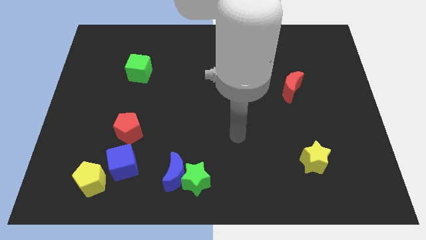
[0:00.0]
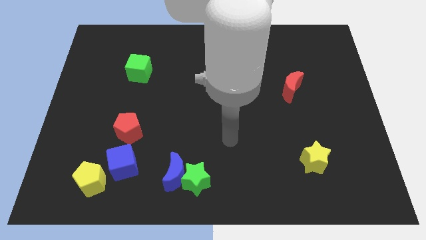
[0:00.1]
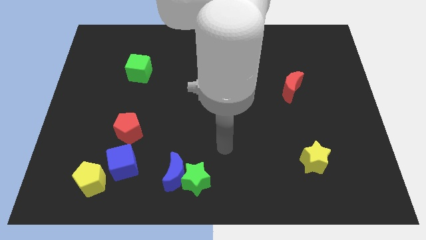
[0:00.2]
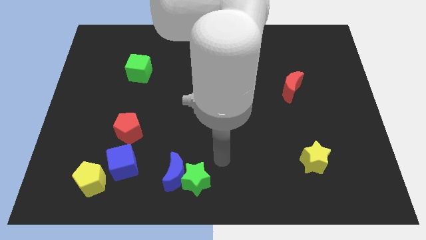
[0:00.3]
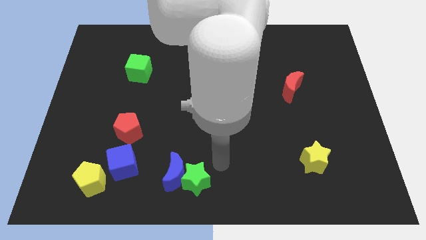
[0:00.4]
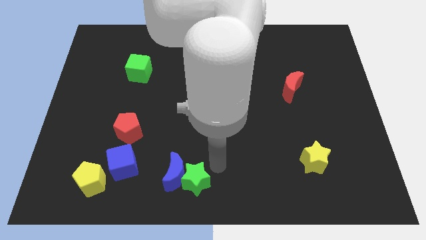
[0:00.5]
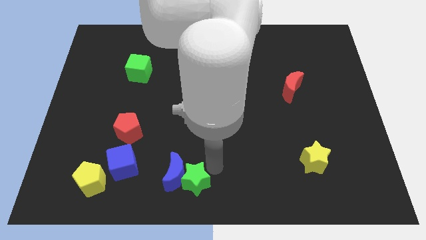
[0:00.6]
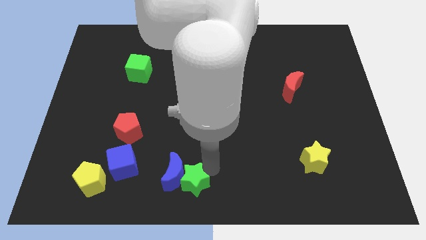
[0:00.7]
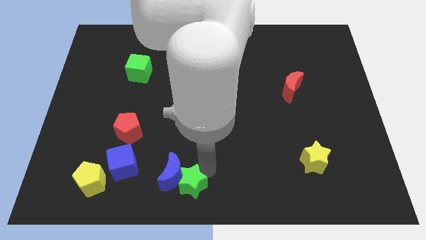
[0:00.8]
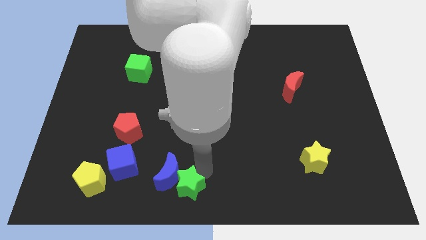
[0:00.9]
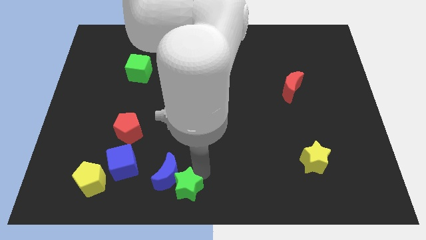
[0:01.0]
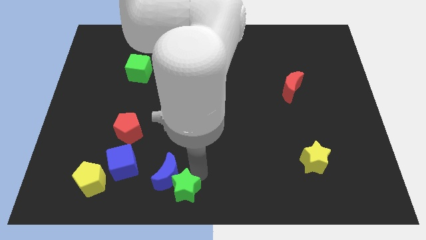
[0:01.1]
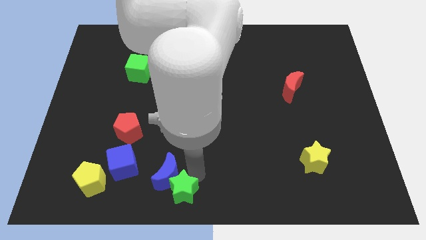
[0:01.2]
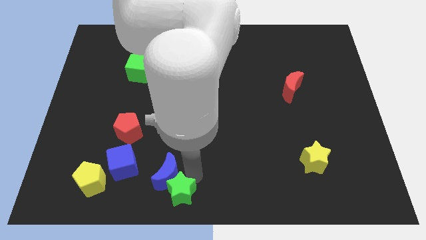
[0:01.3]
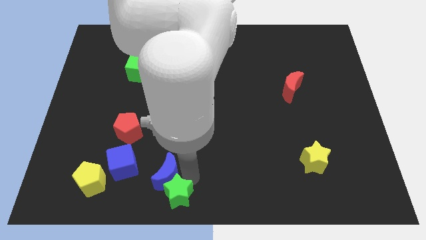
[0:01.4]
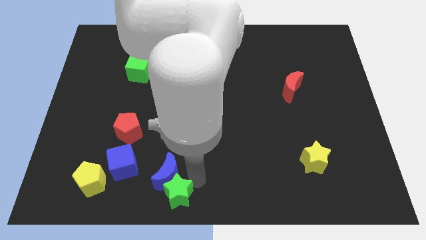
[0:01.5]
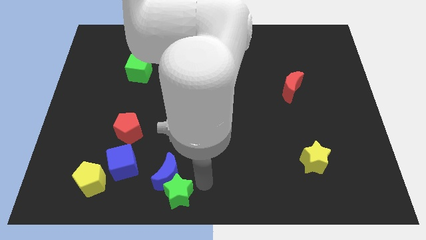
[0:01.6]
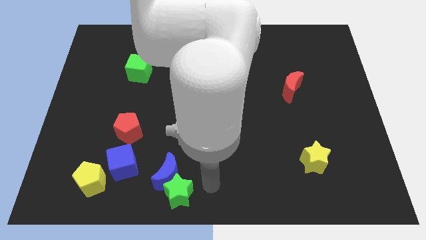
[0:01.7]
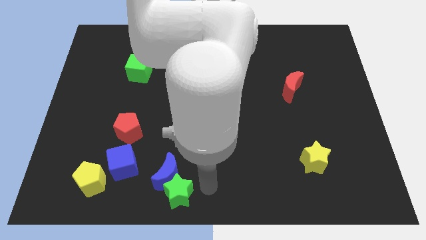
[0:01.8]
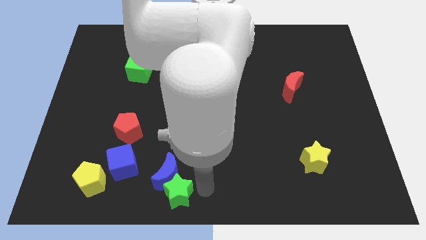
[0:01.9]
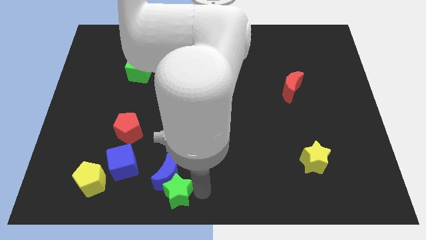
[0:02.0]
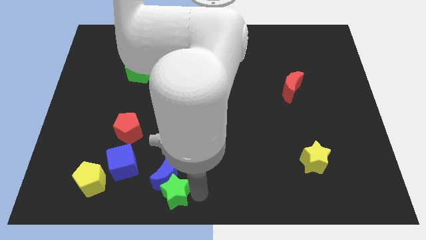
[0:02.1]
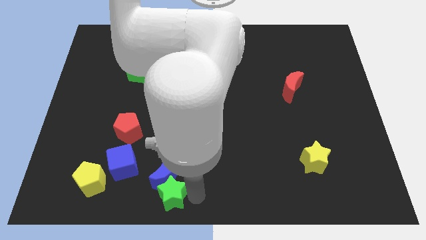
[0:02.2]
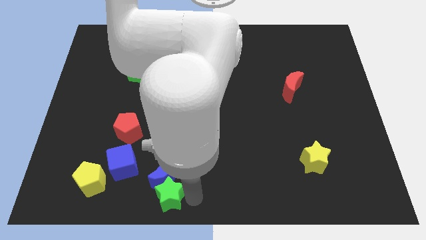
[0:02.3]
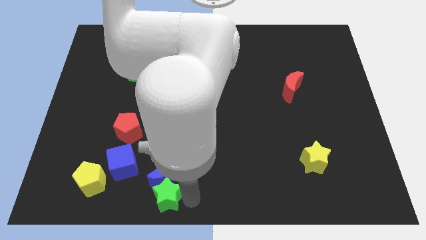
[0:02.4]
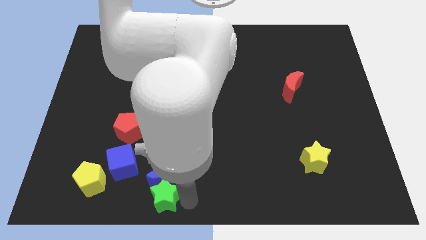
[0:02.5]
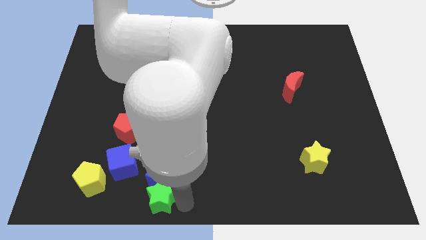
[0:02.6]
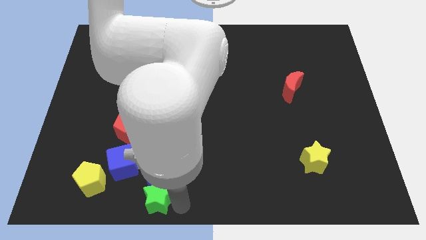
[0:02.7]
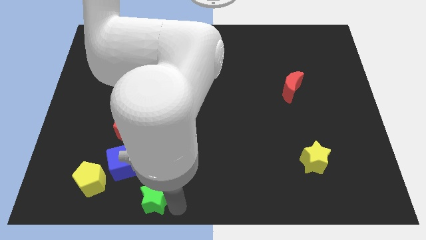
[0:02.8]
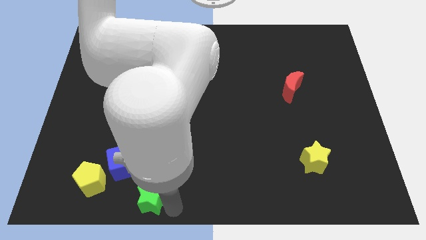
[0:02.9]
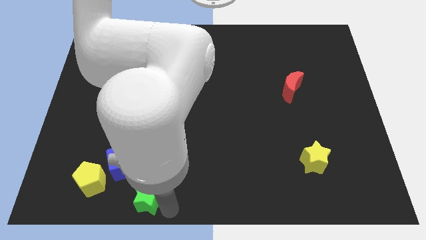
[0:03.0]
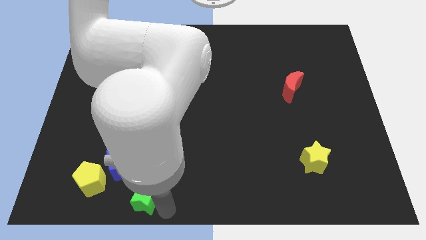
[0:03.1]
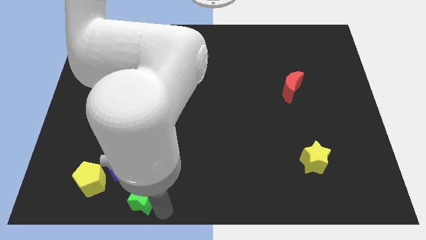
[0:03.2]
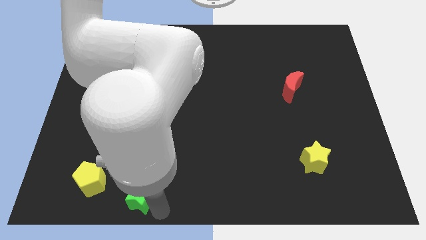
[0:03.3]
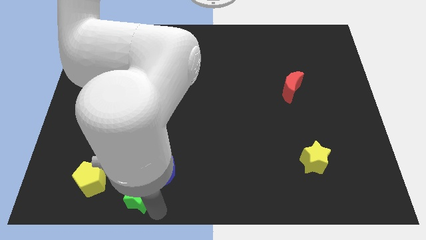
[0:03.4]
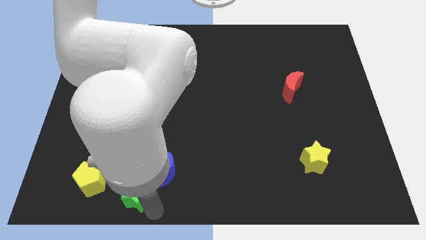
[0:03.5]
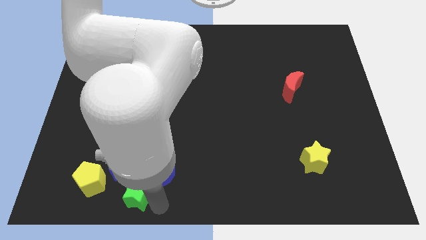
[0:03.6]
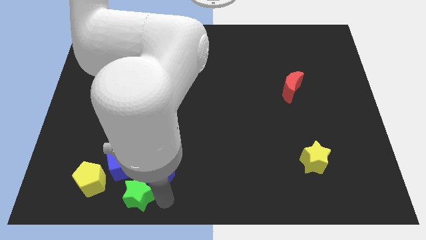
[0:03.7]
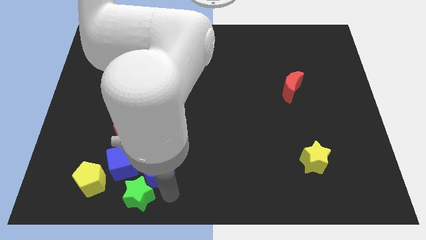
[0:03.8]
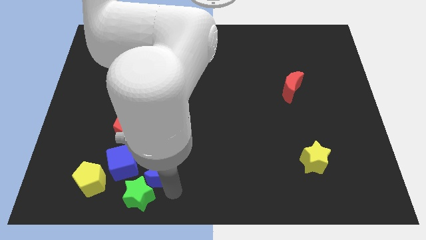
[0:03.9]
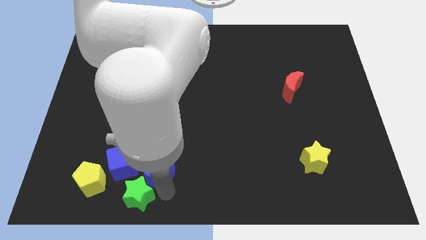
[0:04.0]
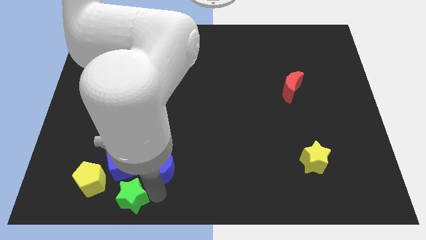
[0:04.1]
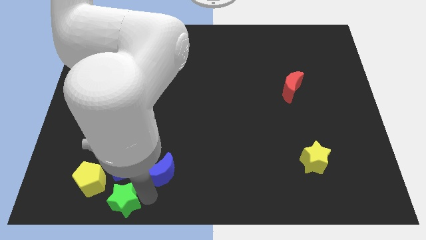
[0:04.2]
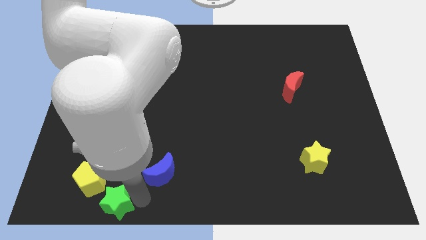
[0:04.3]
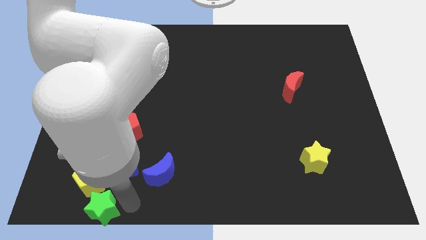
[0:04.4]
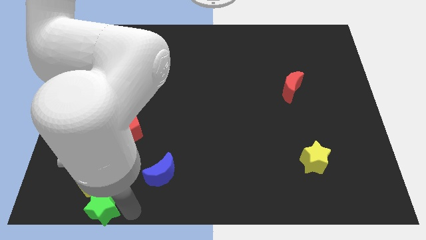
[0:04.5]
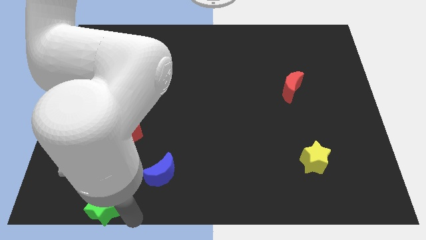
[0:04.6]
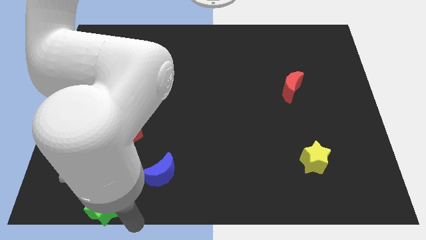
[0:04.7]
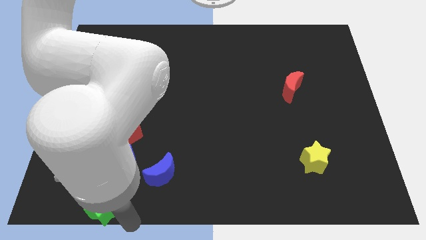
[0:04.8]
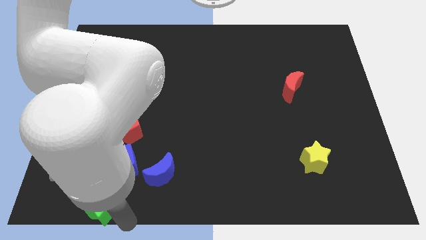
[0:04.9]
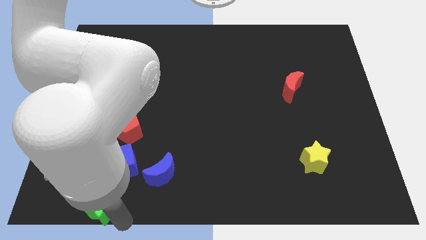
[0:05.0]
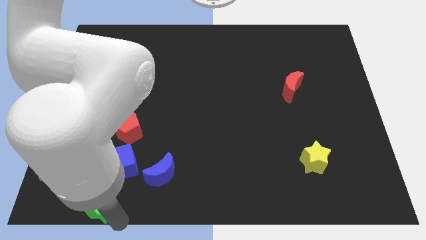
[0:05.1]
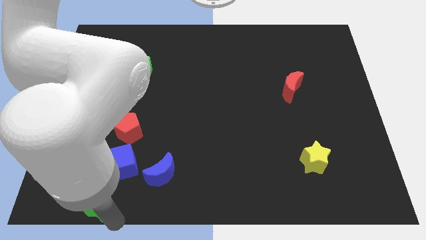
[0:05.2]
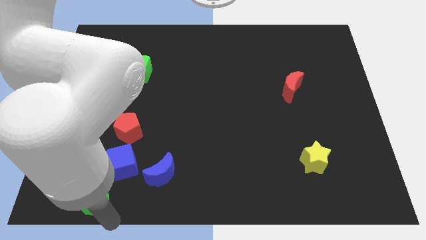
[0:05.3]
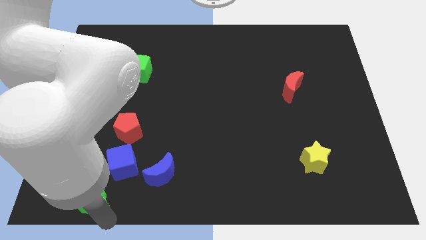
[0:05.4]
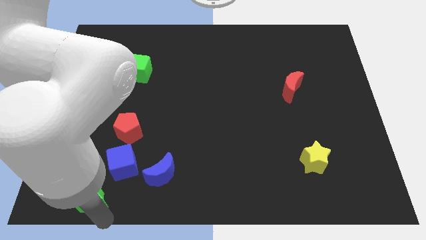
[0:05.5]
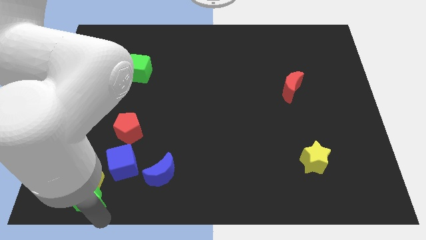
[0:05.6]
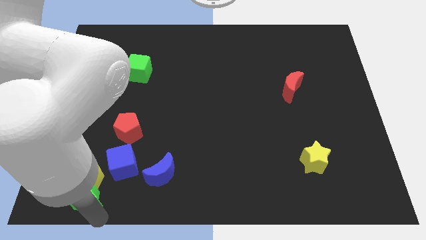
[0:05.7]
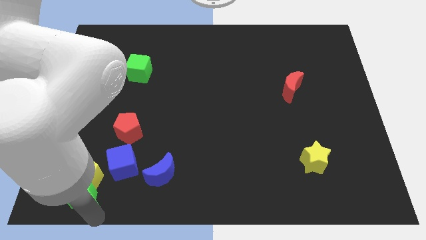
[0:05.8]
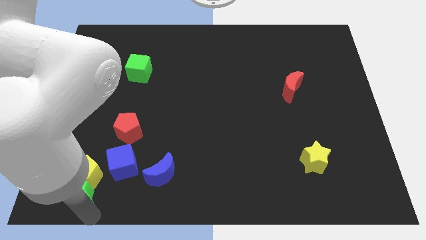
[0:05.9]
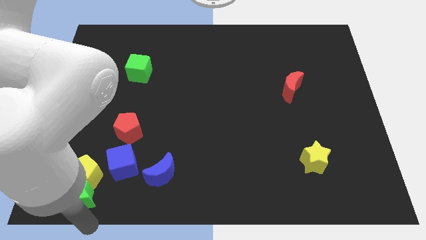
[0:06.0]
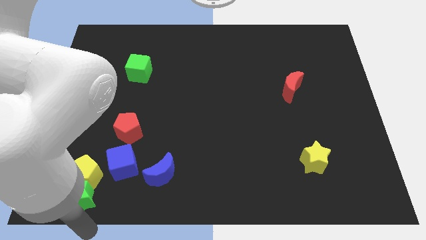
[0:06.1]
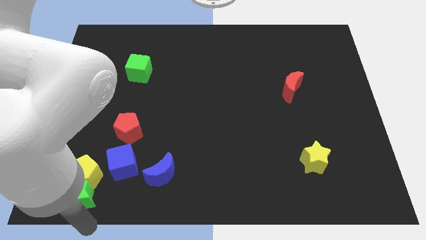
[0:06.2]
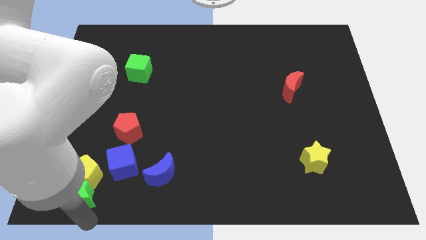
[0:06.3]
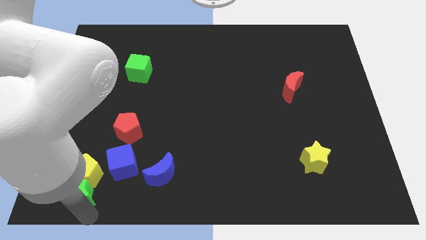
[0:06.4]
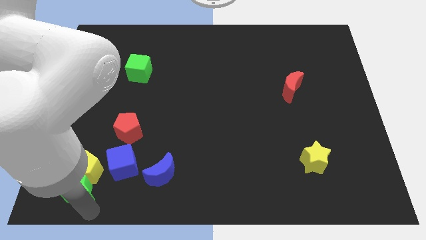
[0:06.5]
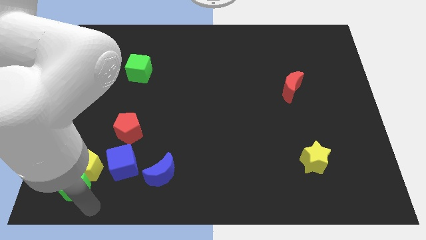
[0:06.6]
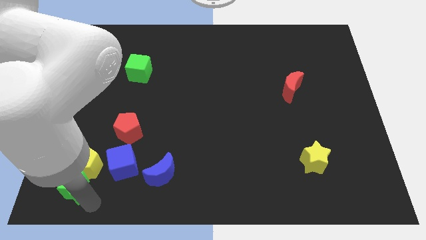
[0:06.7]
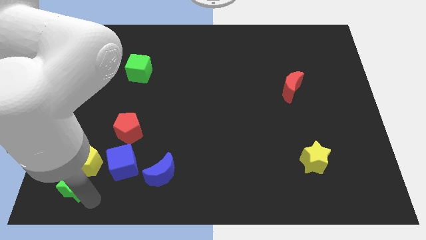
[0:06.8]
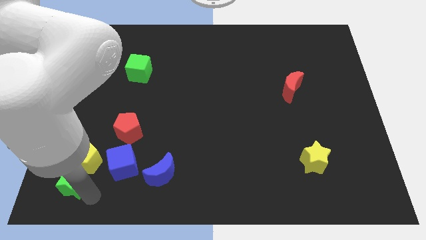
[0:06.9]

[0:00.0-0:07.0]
move the green star left of the blue cube
